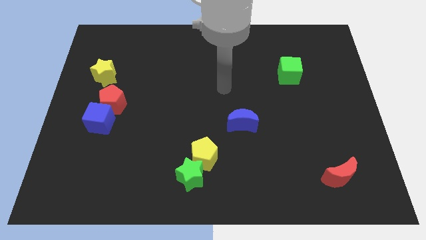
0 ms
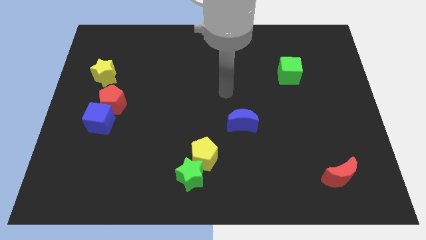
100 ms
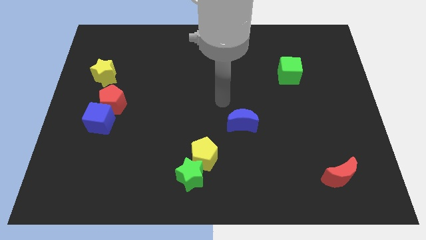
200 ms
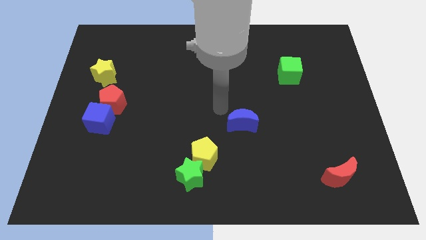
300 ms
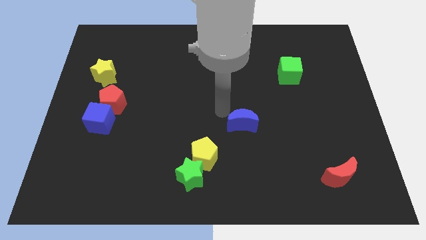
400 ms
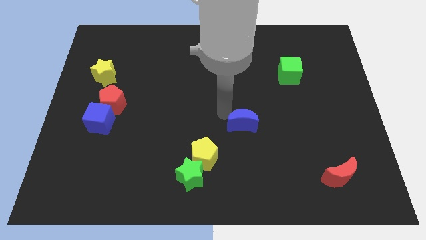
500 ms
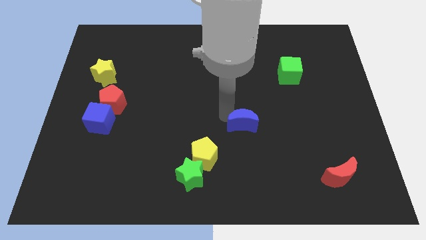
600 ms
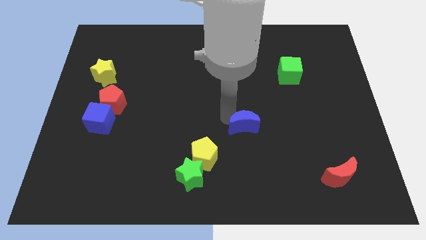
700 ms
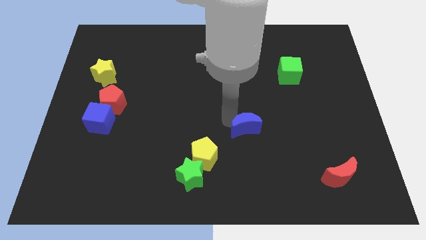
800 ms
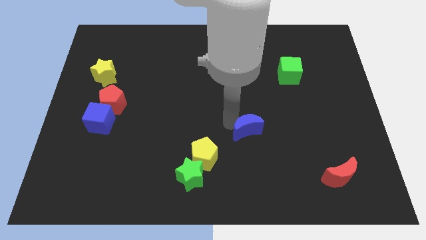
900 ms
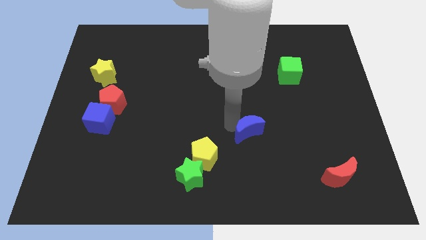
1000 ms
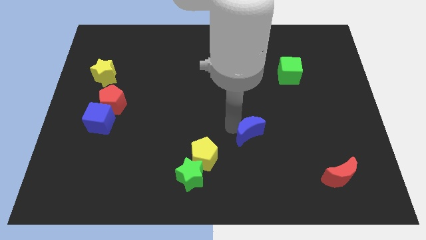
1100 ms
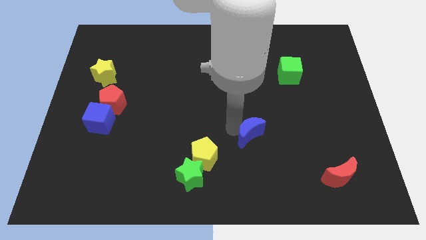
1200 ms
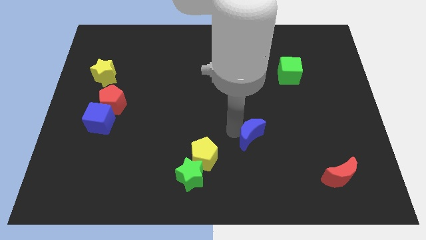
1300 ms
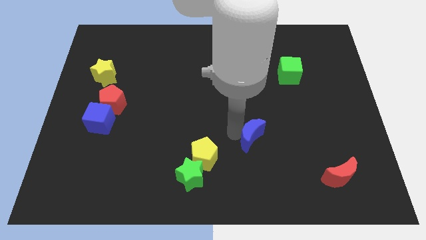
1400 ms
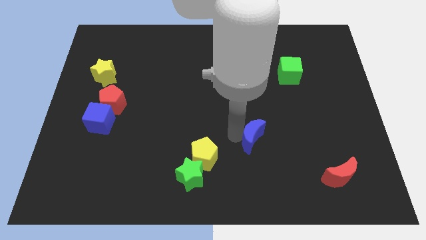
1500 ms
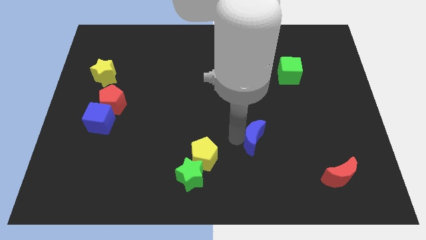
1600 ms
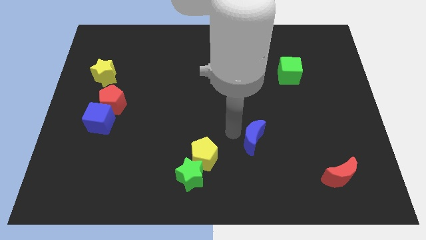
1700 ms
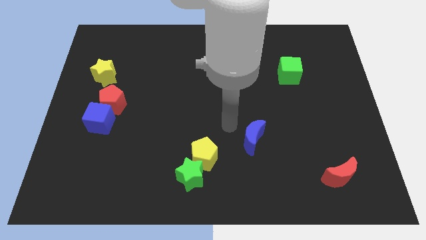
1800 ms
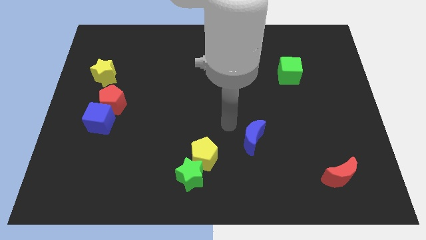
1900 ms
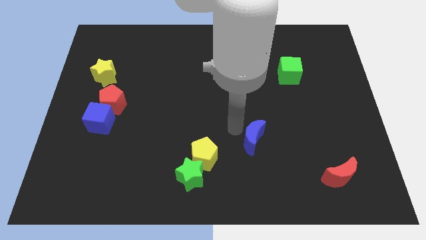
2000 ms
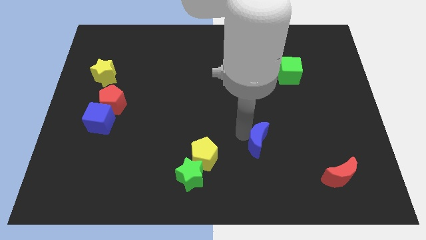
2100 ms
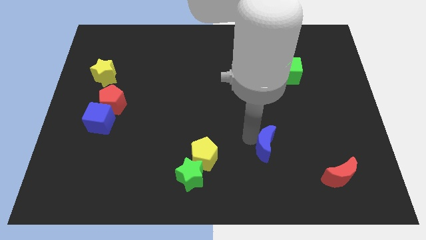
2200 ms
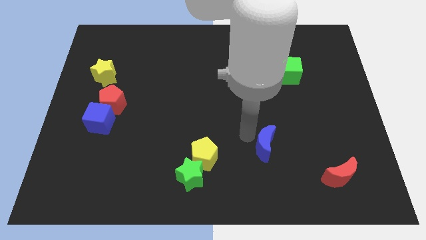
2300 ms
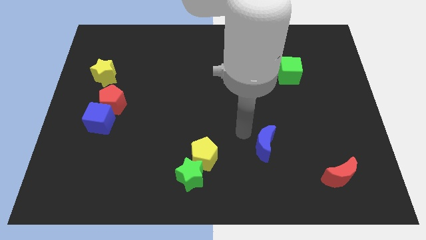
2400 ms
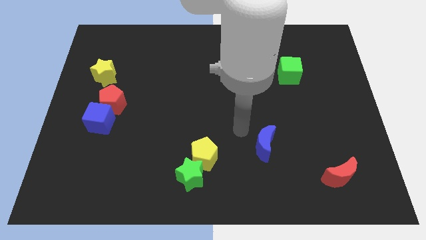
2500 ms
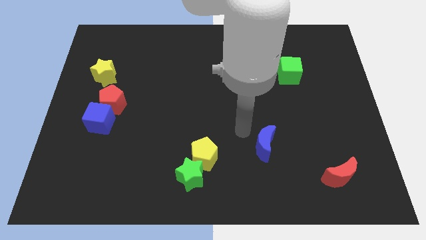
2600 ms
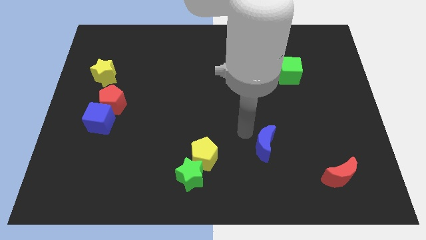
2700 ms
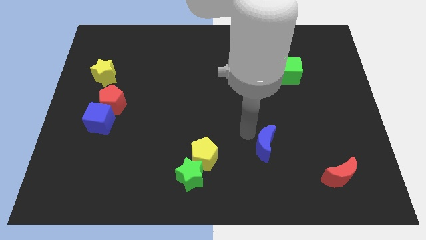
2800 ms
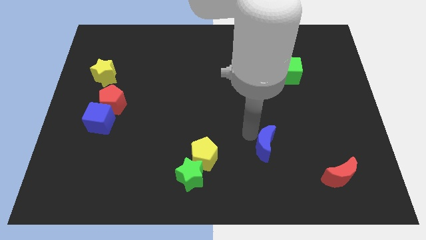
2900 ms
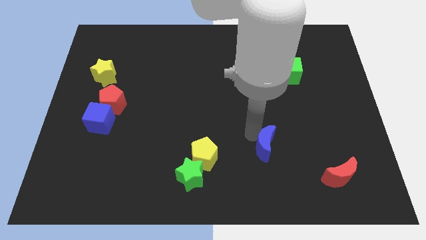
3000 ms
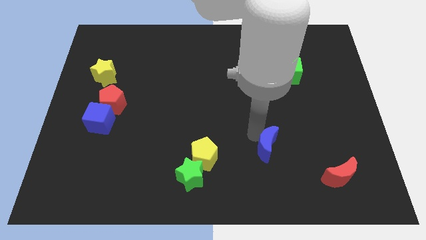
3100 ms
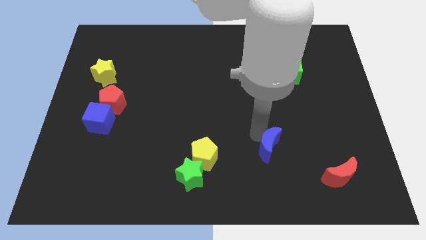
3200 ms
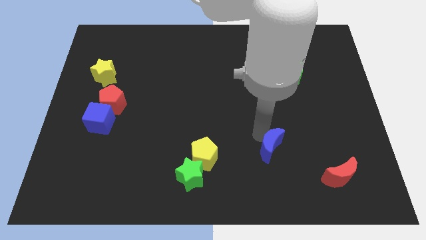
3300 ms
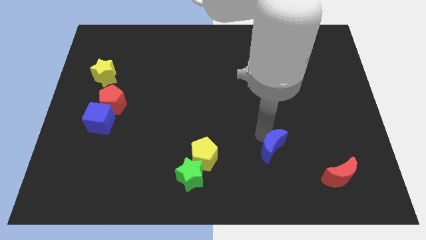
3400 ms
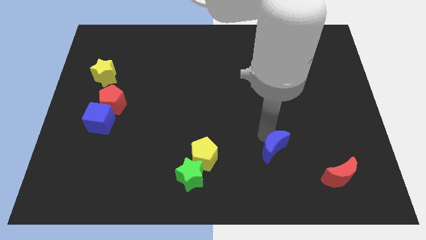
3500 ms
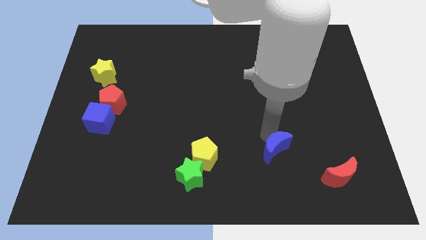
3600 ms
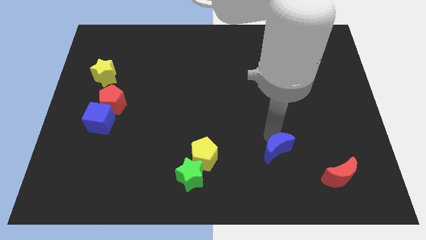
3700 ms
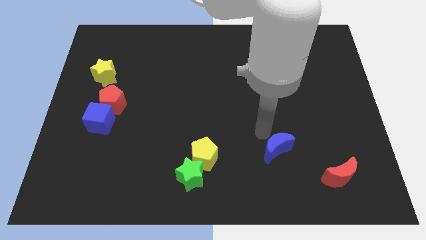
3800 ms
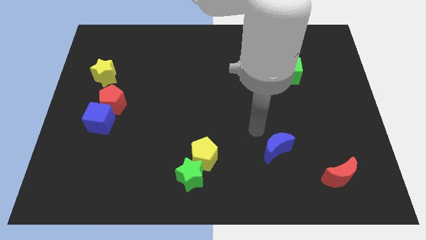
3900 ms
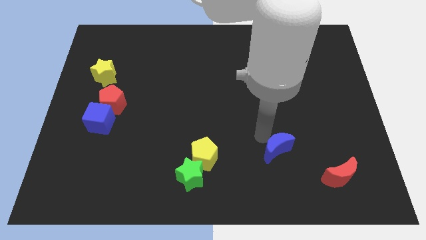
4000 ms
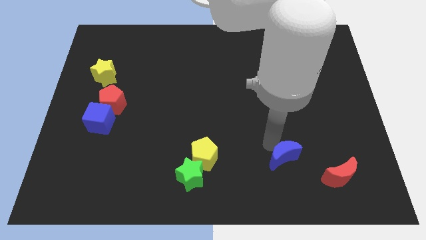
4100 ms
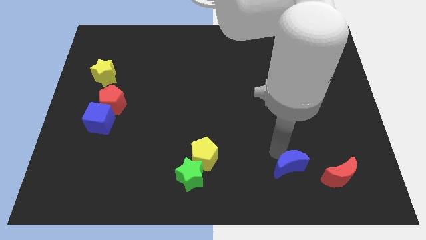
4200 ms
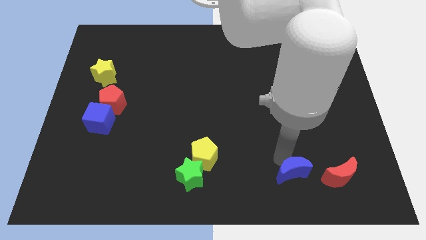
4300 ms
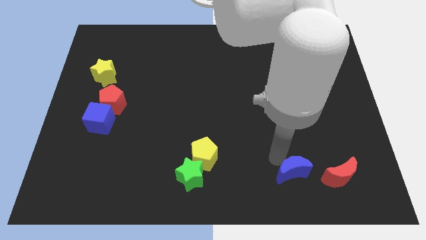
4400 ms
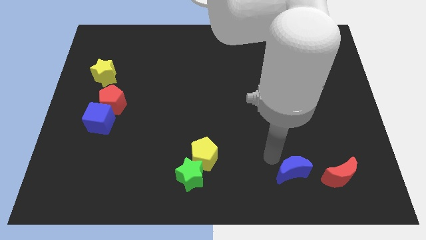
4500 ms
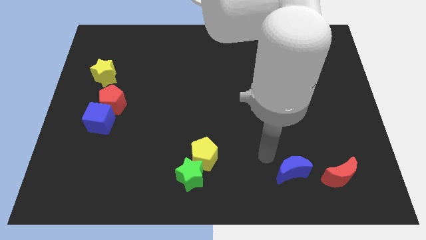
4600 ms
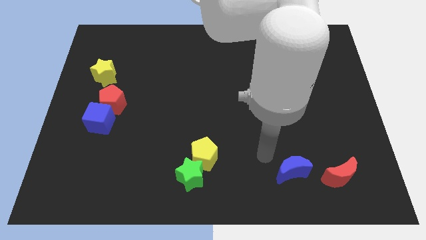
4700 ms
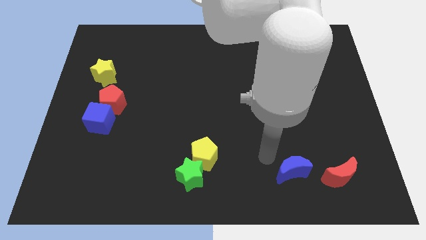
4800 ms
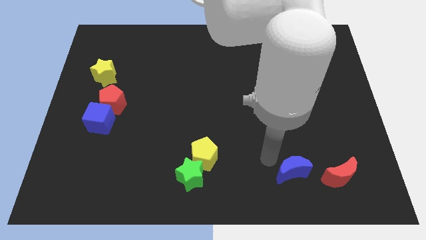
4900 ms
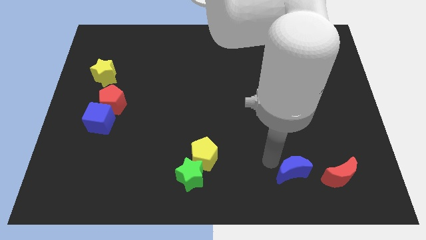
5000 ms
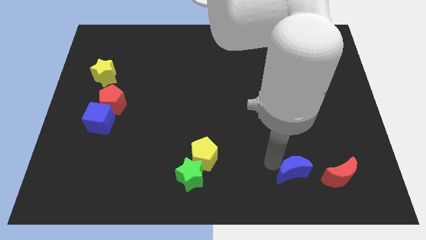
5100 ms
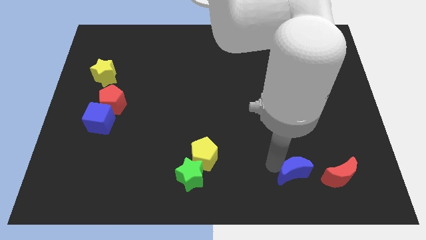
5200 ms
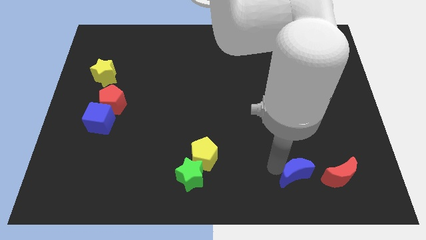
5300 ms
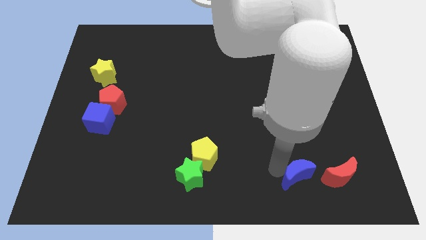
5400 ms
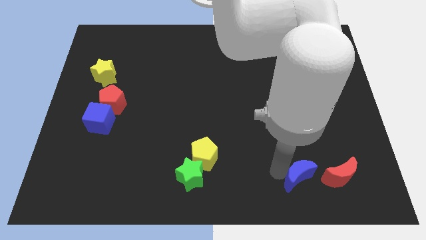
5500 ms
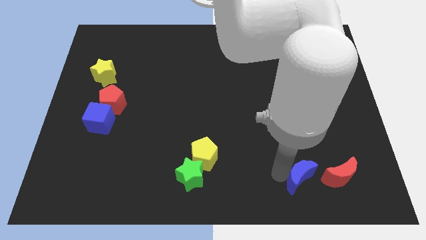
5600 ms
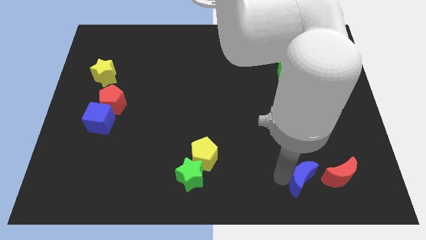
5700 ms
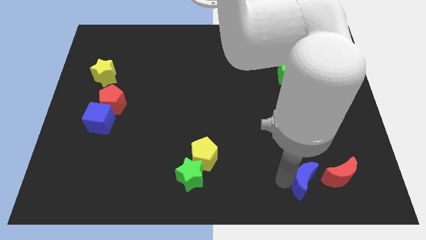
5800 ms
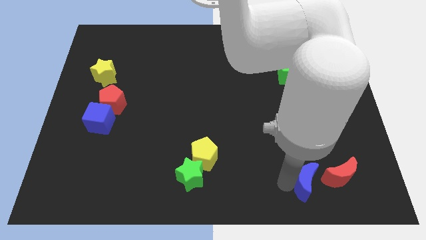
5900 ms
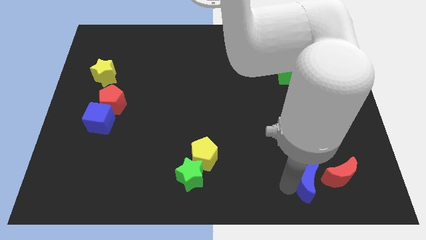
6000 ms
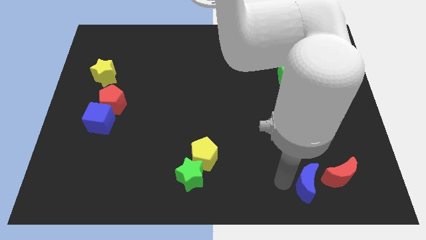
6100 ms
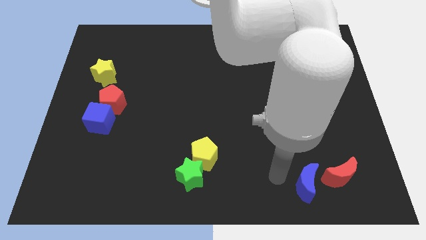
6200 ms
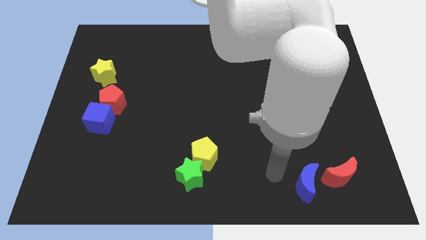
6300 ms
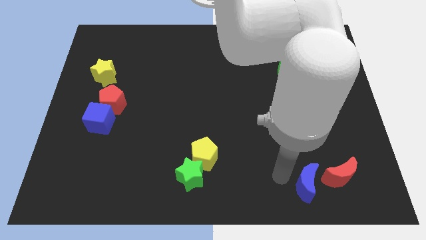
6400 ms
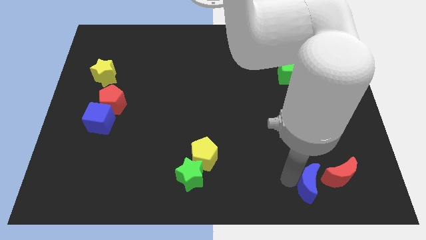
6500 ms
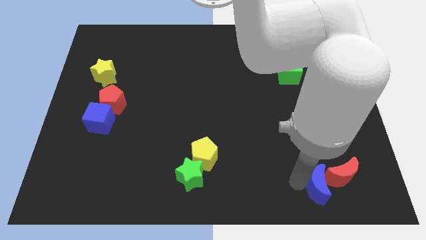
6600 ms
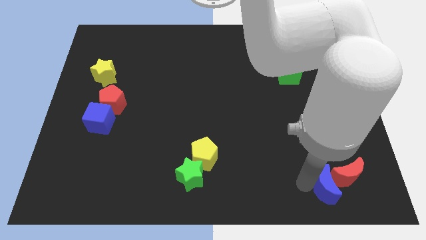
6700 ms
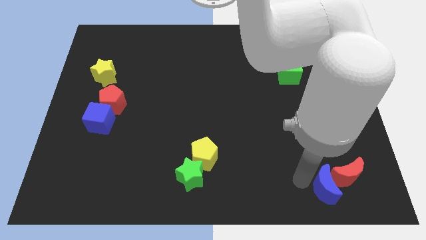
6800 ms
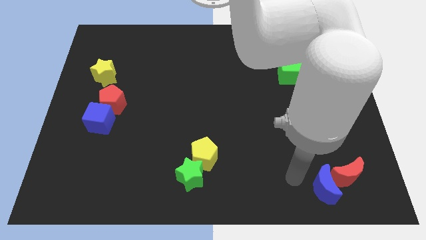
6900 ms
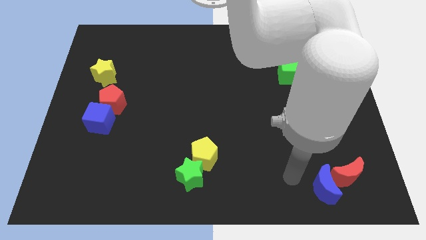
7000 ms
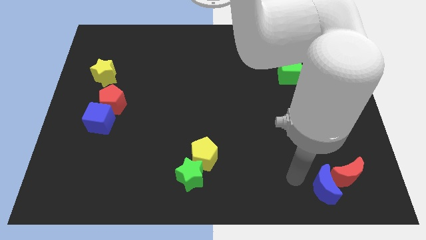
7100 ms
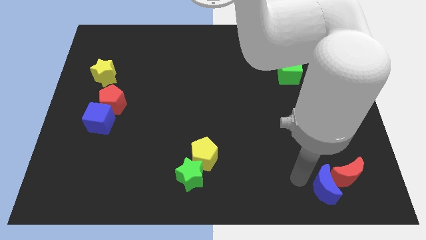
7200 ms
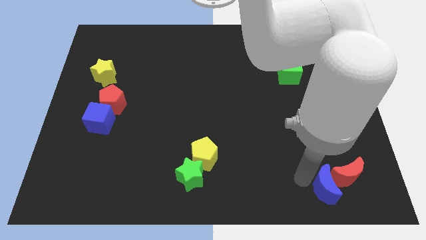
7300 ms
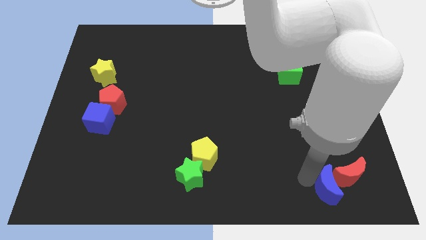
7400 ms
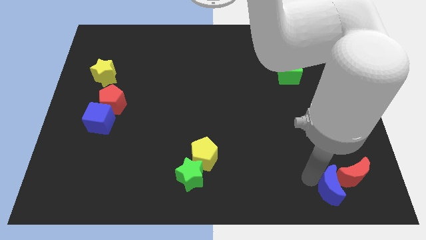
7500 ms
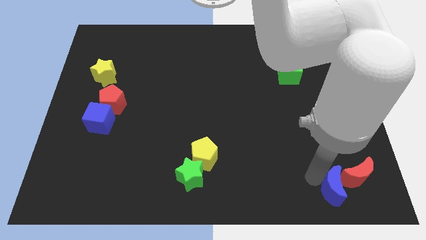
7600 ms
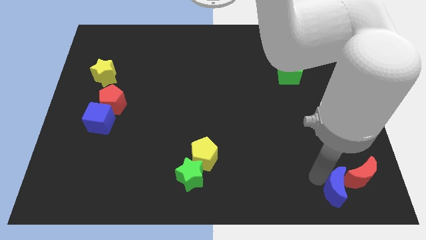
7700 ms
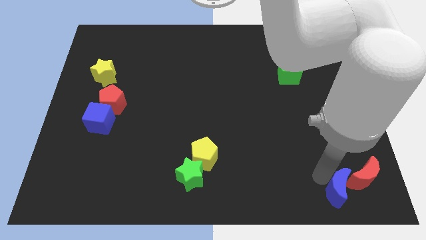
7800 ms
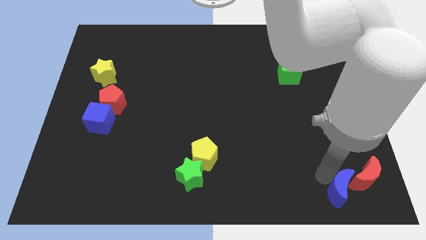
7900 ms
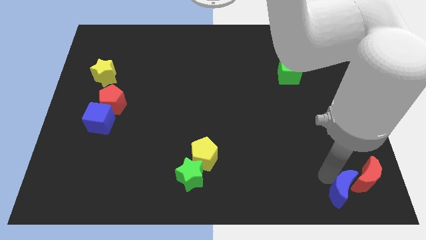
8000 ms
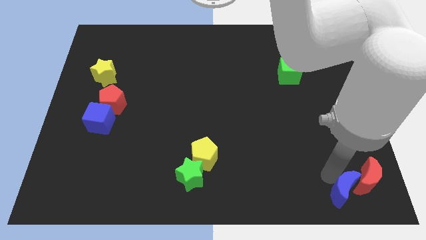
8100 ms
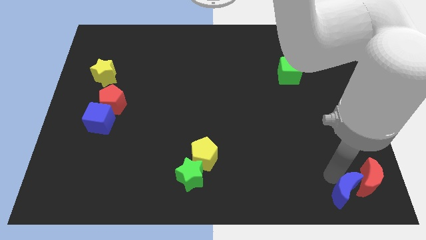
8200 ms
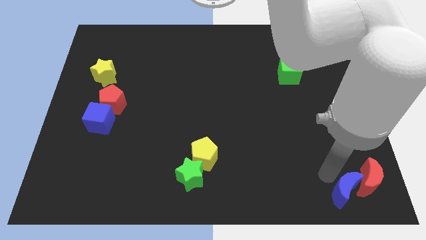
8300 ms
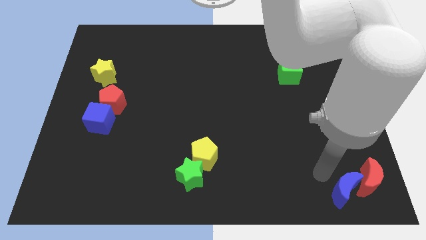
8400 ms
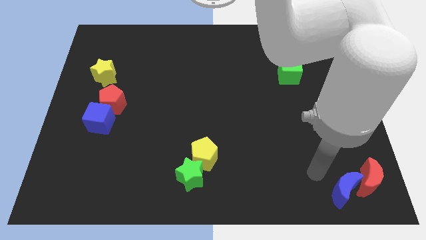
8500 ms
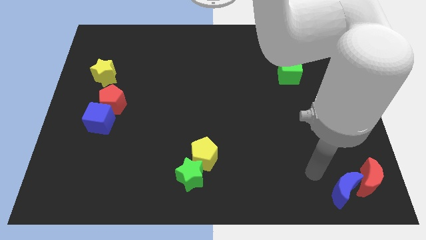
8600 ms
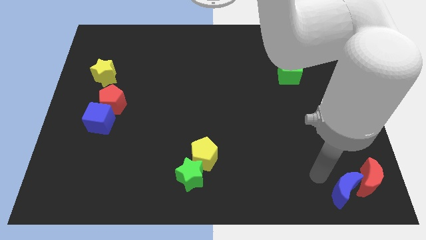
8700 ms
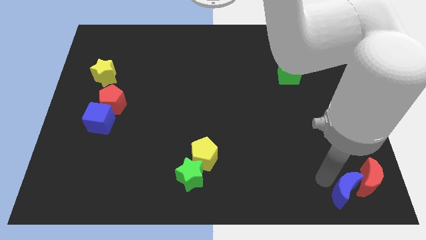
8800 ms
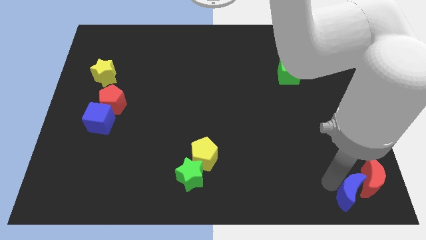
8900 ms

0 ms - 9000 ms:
push the blue moon to the bottom right
